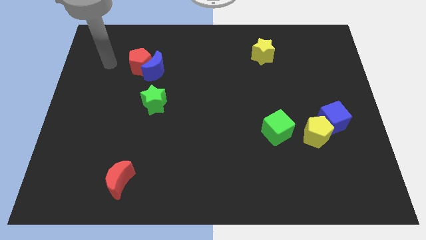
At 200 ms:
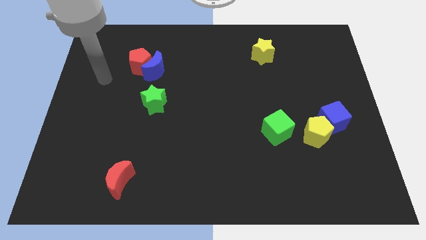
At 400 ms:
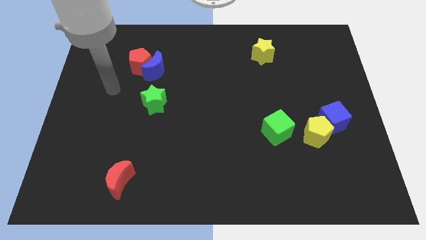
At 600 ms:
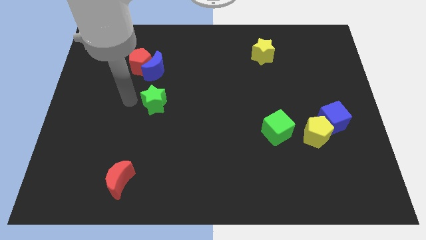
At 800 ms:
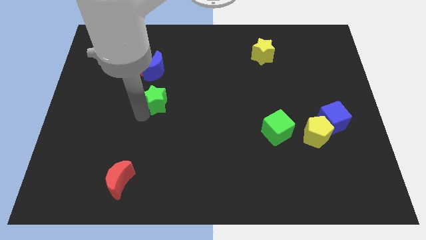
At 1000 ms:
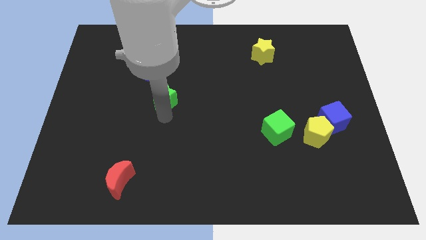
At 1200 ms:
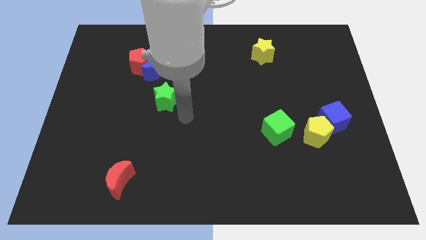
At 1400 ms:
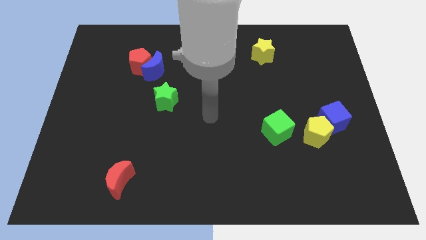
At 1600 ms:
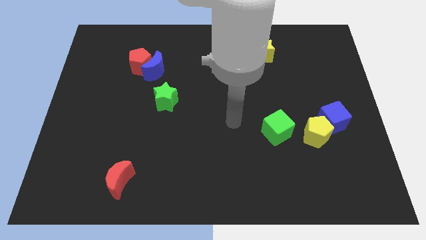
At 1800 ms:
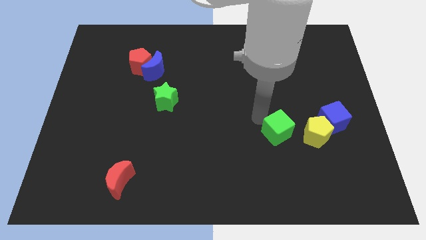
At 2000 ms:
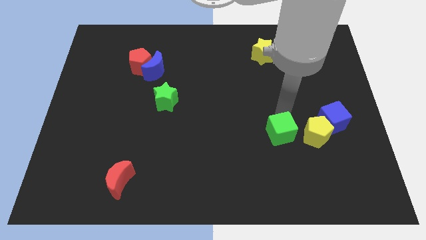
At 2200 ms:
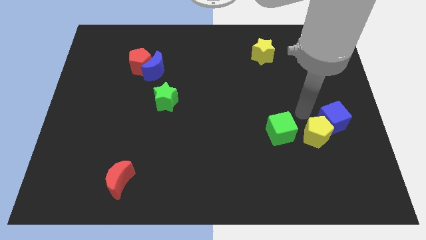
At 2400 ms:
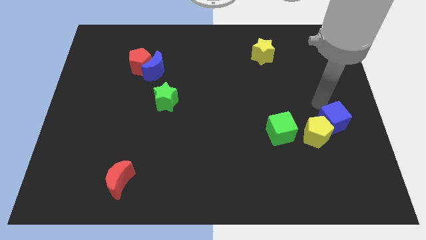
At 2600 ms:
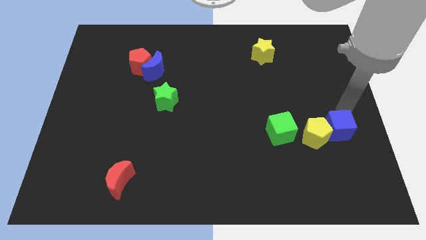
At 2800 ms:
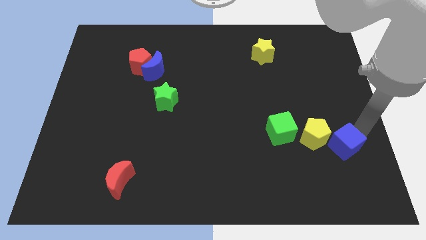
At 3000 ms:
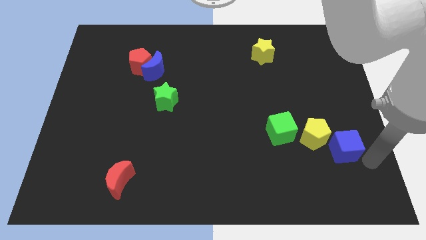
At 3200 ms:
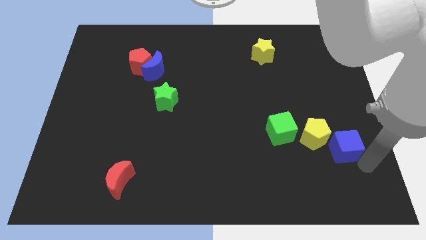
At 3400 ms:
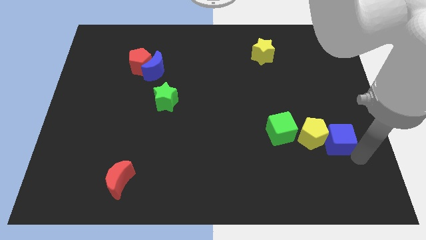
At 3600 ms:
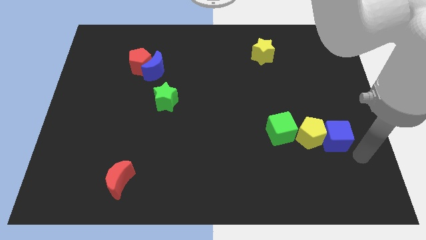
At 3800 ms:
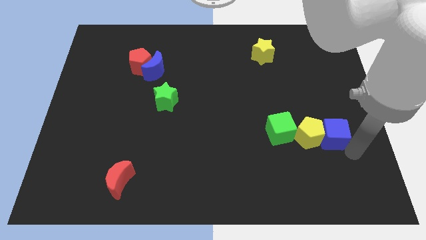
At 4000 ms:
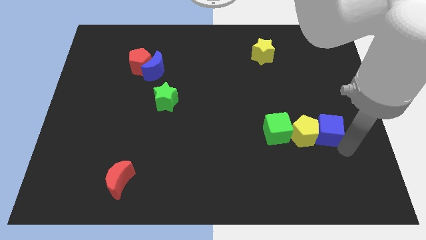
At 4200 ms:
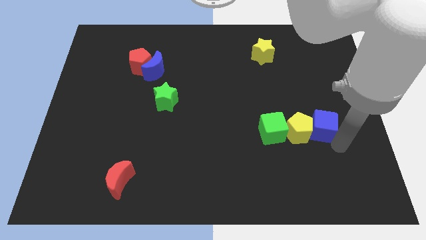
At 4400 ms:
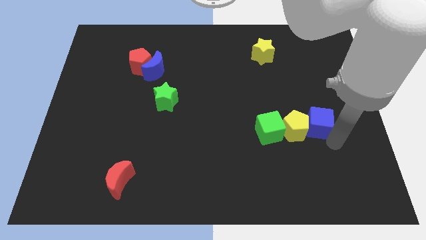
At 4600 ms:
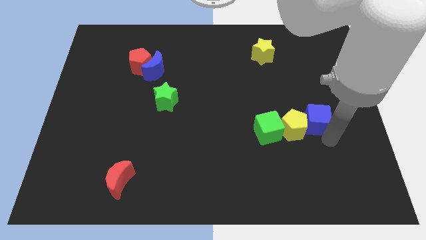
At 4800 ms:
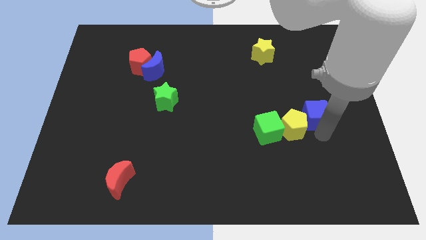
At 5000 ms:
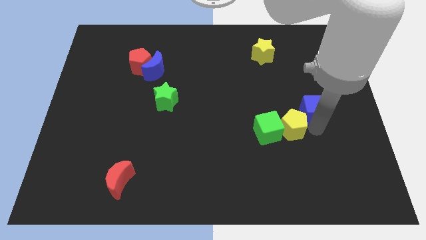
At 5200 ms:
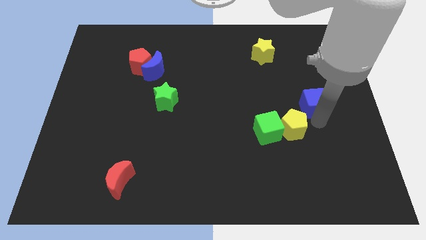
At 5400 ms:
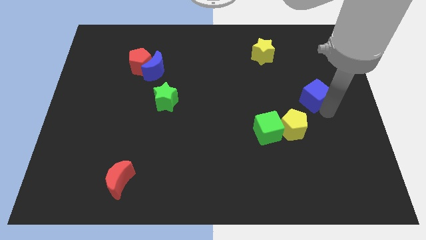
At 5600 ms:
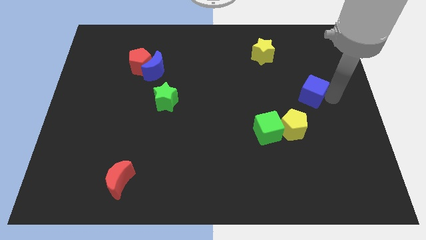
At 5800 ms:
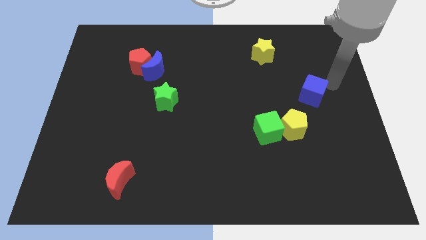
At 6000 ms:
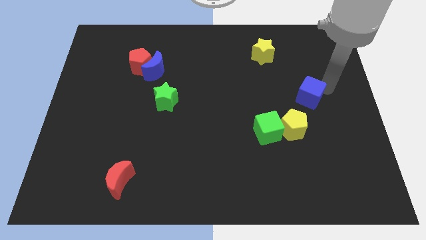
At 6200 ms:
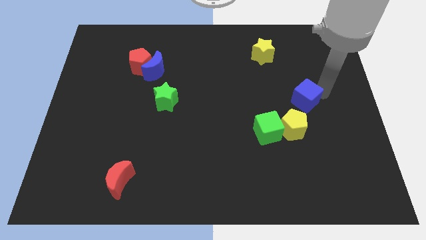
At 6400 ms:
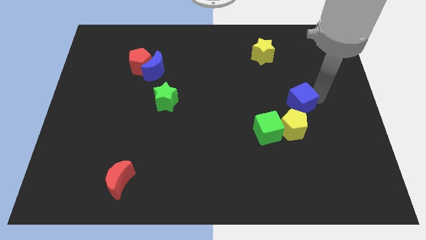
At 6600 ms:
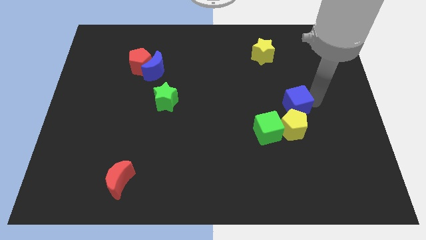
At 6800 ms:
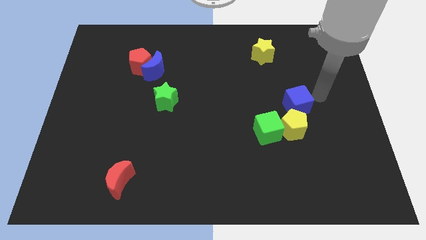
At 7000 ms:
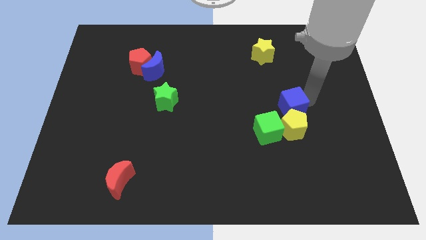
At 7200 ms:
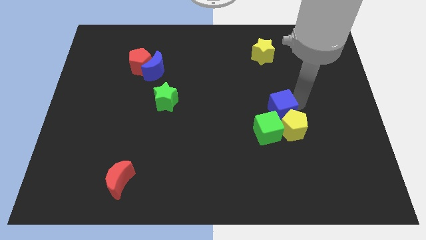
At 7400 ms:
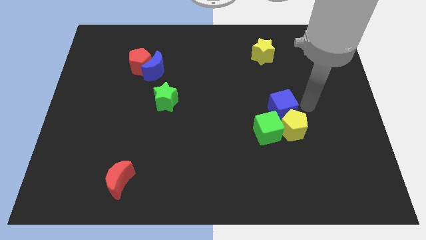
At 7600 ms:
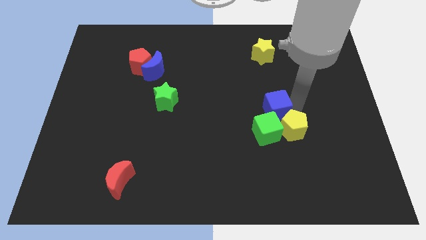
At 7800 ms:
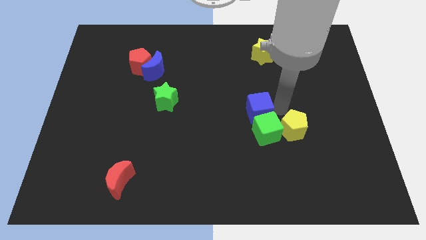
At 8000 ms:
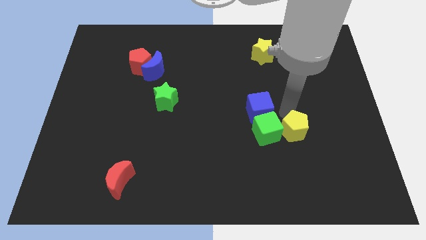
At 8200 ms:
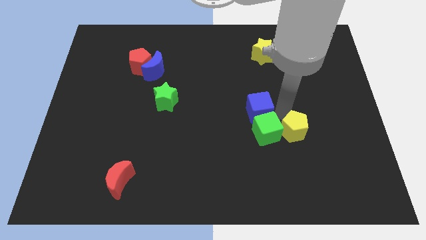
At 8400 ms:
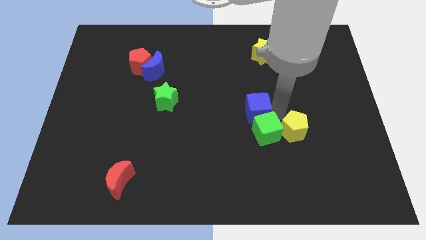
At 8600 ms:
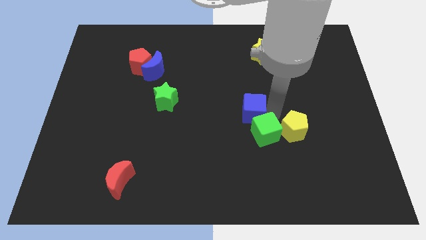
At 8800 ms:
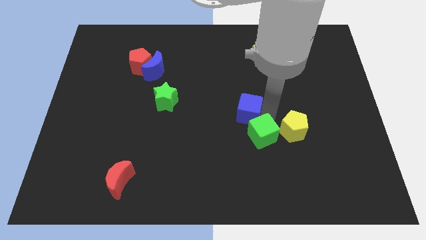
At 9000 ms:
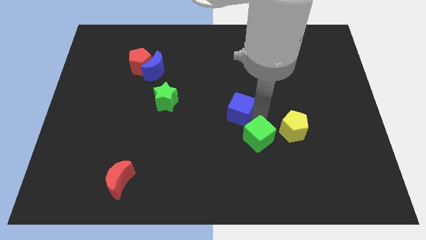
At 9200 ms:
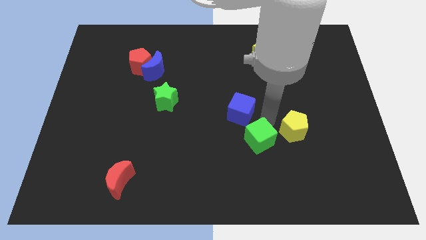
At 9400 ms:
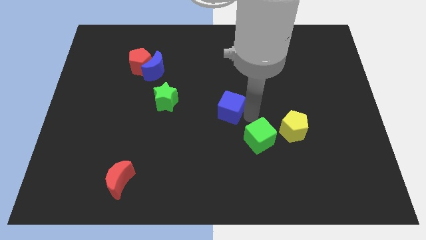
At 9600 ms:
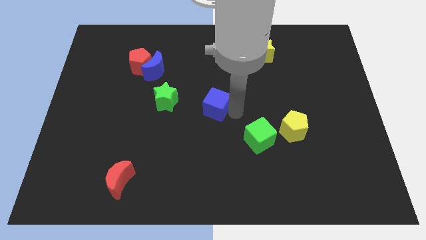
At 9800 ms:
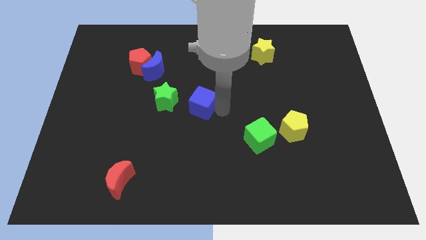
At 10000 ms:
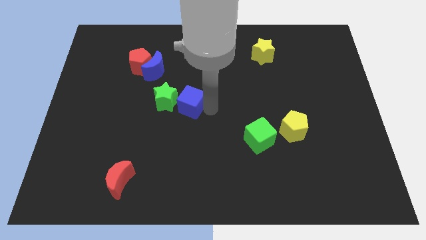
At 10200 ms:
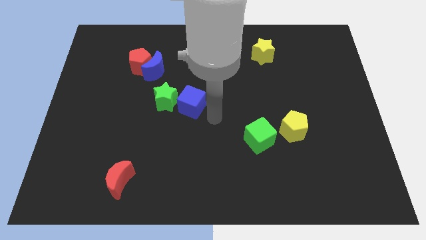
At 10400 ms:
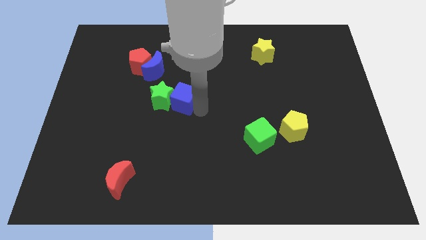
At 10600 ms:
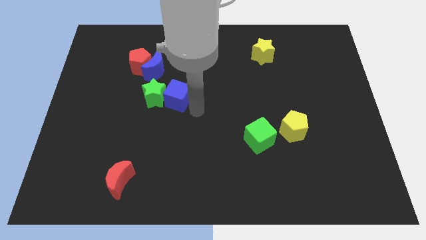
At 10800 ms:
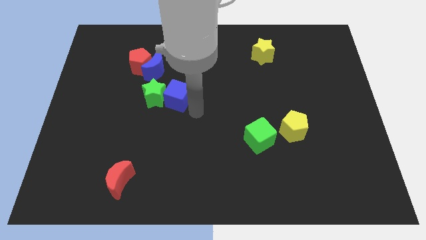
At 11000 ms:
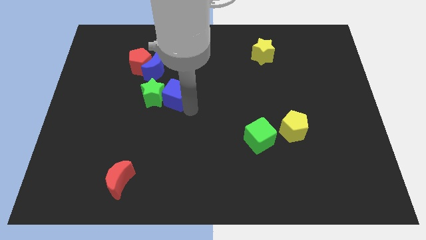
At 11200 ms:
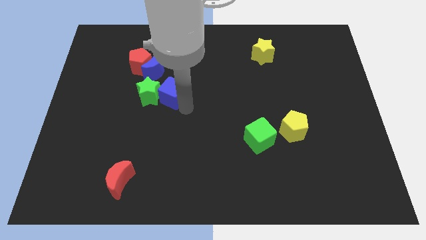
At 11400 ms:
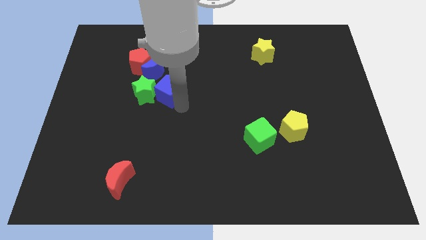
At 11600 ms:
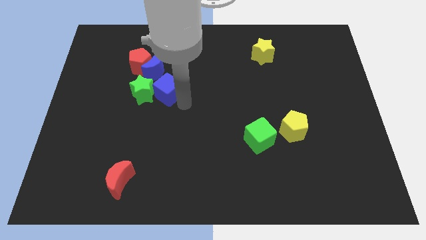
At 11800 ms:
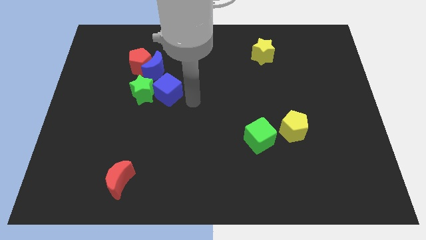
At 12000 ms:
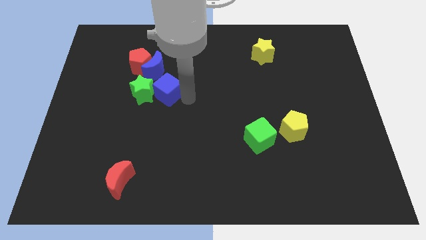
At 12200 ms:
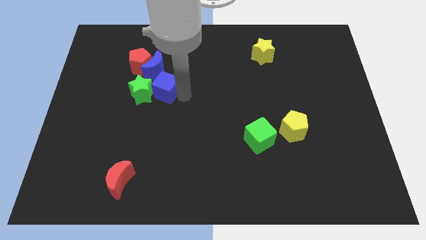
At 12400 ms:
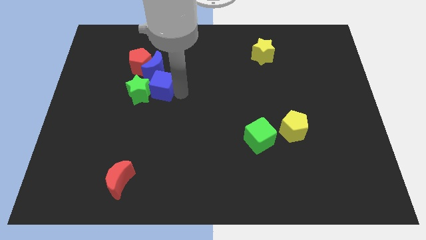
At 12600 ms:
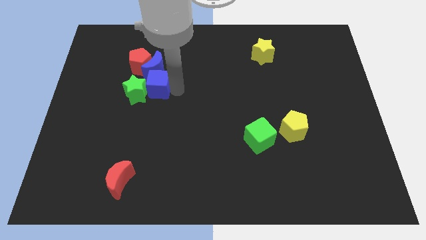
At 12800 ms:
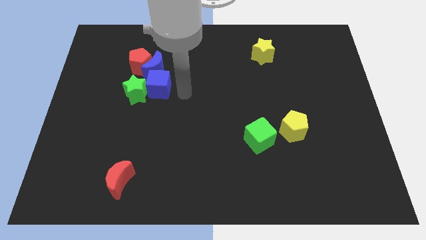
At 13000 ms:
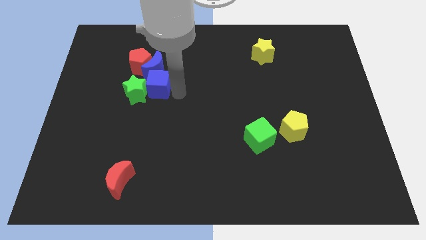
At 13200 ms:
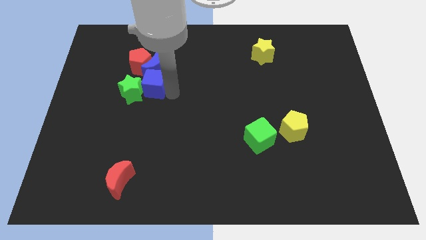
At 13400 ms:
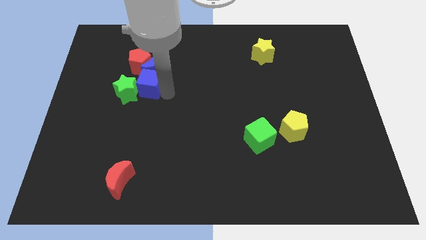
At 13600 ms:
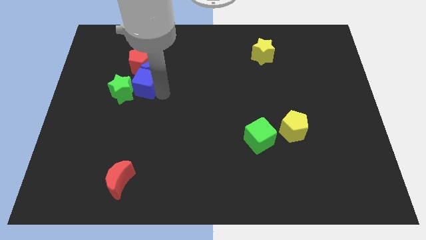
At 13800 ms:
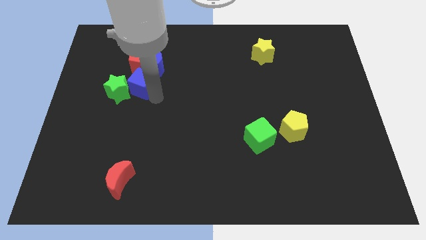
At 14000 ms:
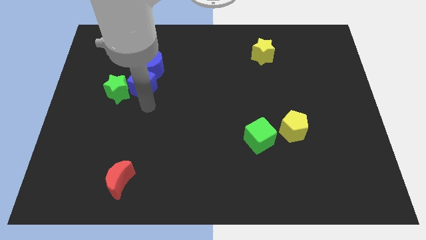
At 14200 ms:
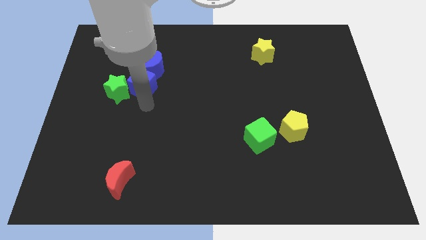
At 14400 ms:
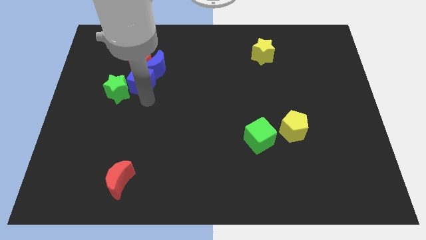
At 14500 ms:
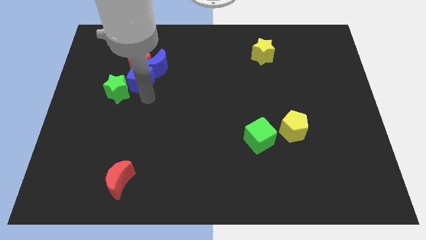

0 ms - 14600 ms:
slide the blue cube close to the red pentagon

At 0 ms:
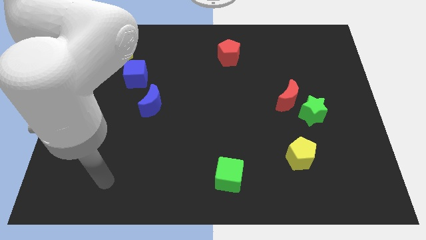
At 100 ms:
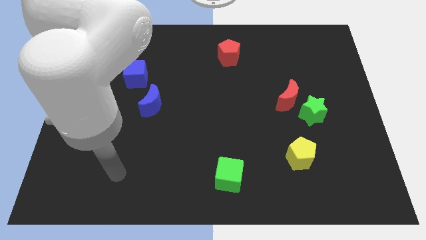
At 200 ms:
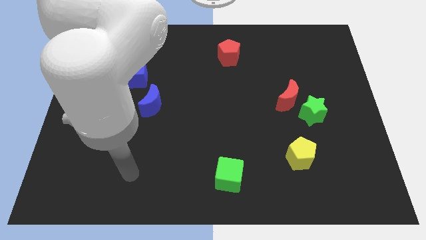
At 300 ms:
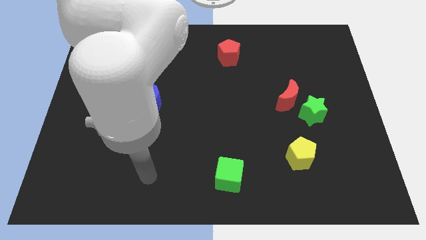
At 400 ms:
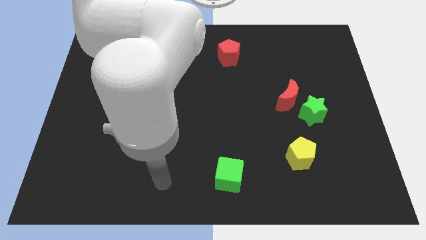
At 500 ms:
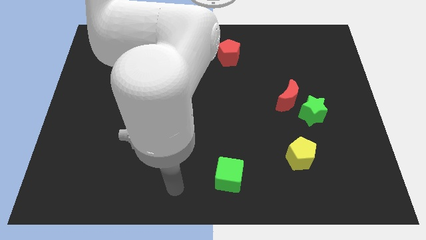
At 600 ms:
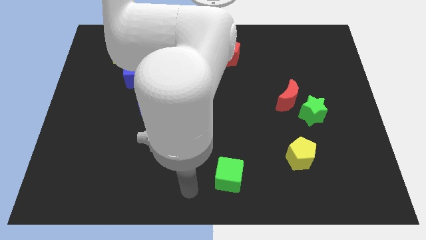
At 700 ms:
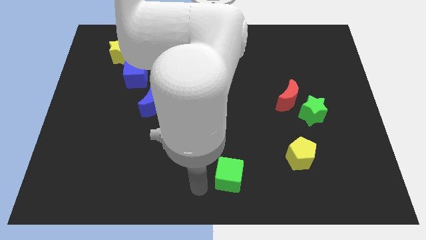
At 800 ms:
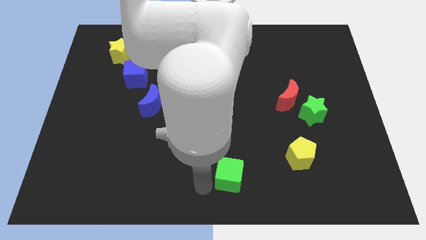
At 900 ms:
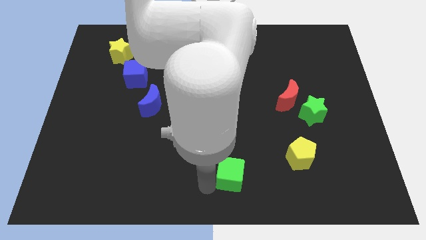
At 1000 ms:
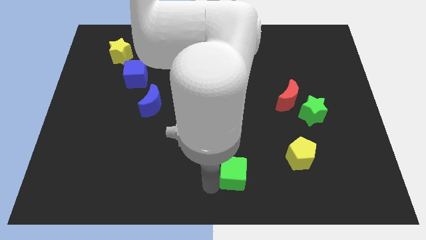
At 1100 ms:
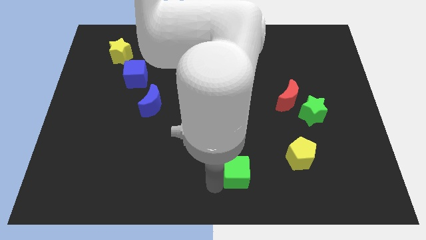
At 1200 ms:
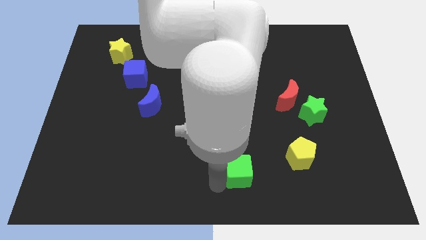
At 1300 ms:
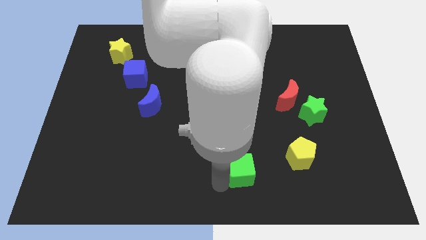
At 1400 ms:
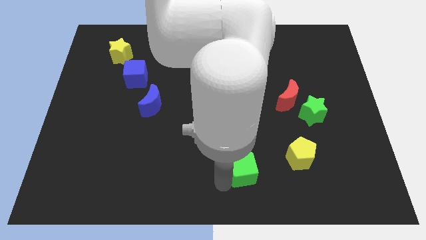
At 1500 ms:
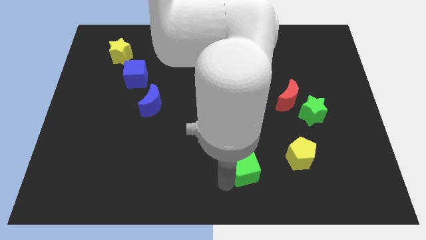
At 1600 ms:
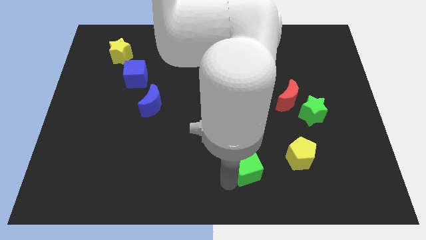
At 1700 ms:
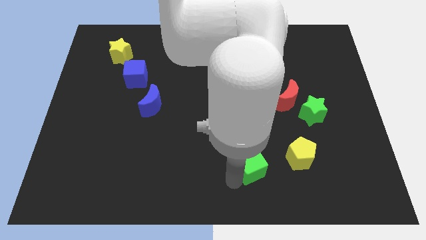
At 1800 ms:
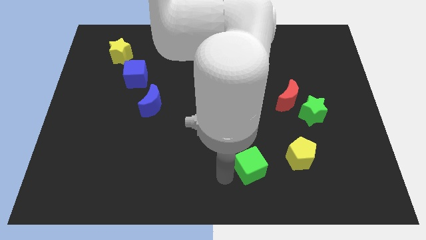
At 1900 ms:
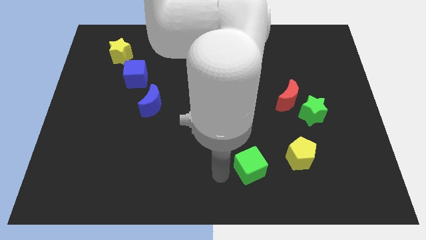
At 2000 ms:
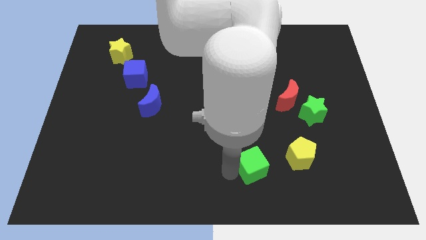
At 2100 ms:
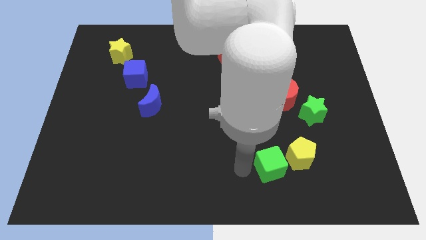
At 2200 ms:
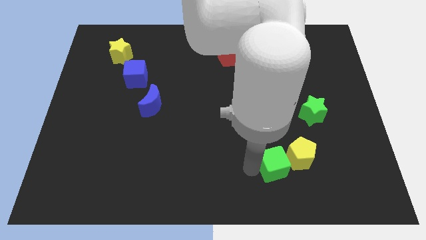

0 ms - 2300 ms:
move the green cube to the yellow pentagon
